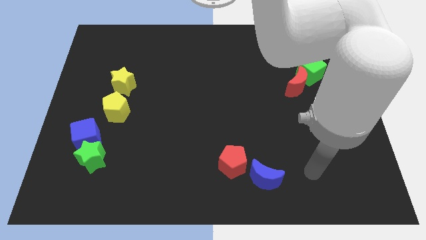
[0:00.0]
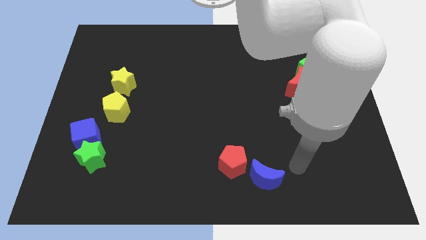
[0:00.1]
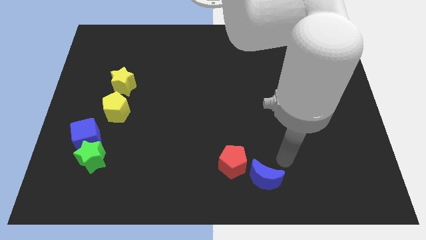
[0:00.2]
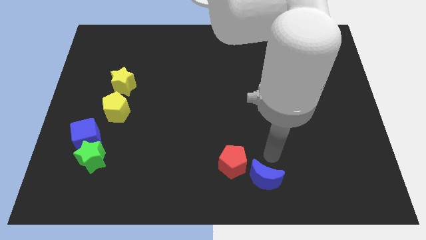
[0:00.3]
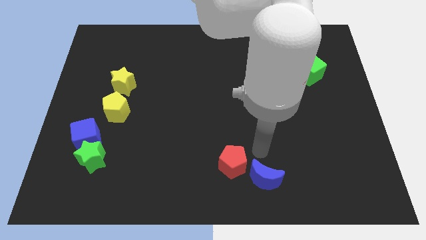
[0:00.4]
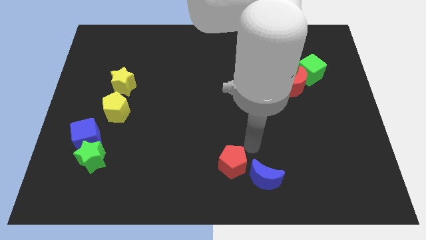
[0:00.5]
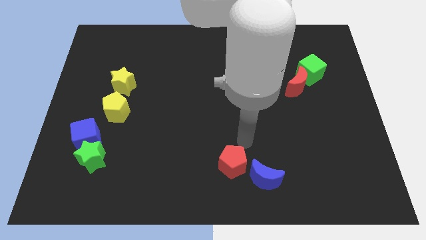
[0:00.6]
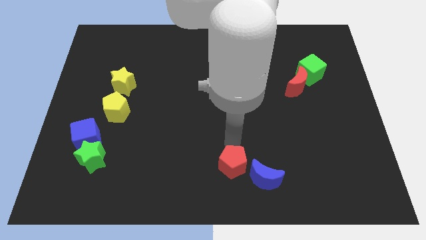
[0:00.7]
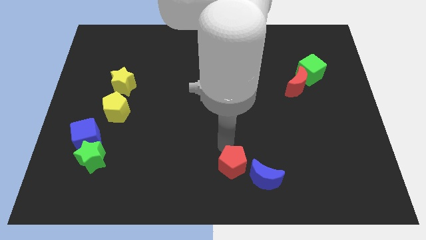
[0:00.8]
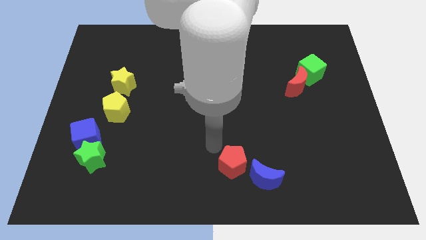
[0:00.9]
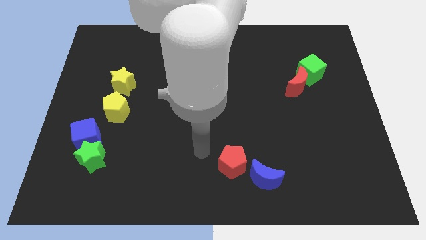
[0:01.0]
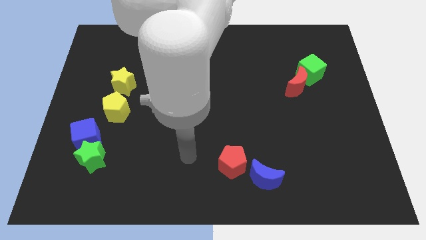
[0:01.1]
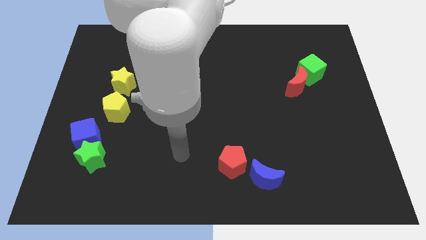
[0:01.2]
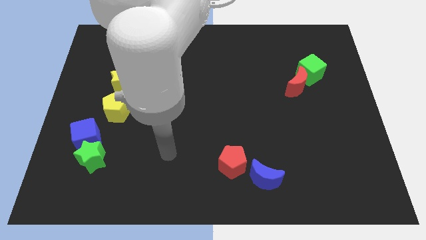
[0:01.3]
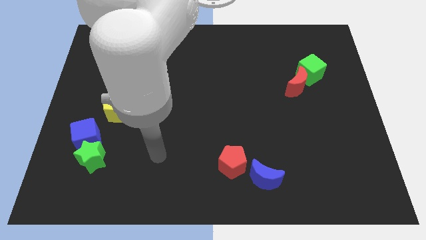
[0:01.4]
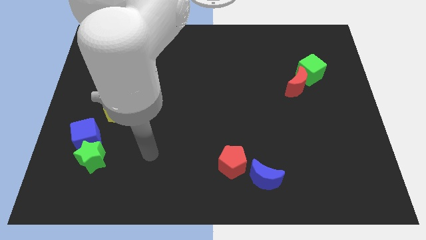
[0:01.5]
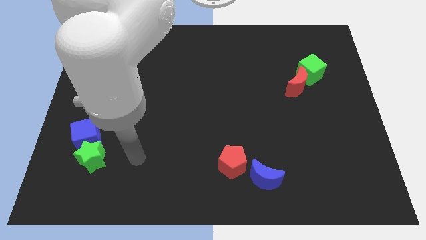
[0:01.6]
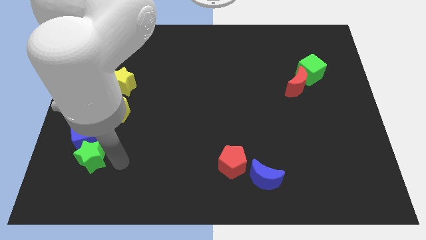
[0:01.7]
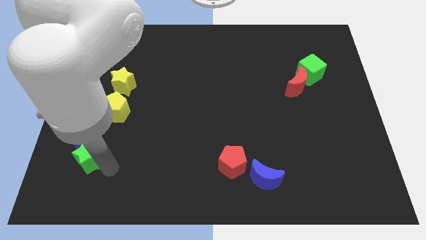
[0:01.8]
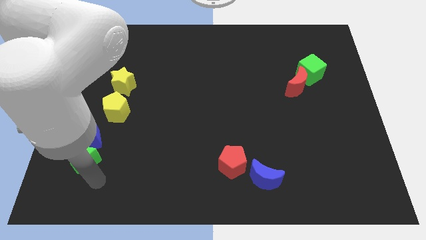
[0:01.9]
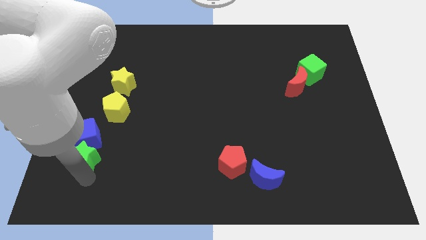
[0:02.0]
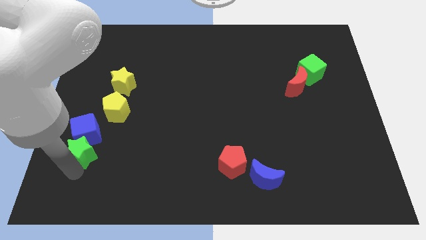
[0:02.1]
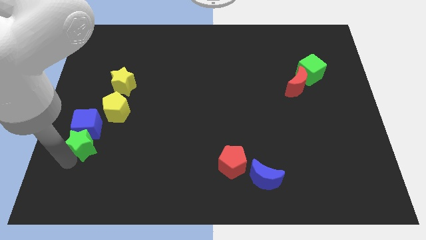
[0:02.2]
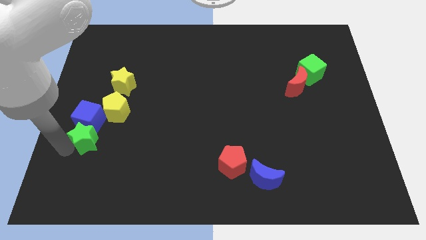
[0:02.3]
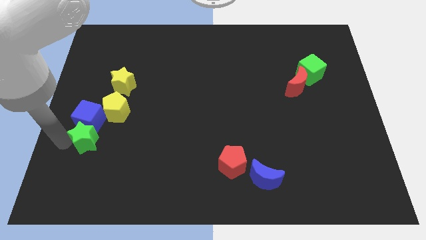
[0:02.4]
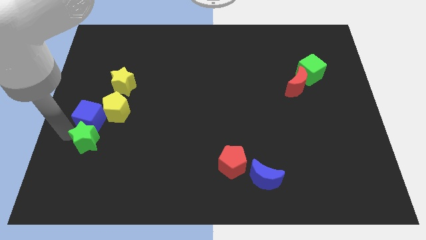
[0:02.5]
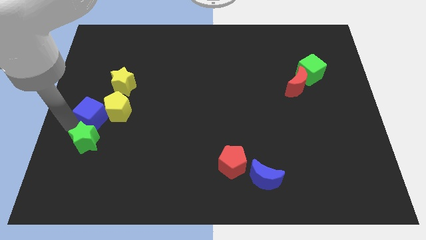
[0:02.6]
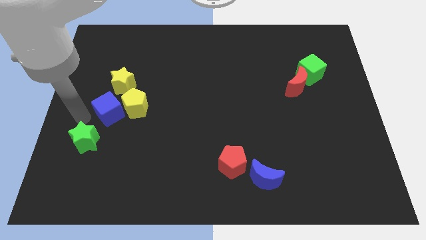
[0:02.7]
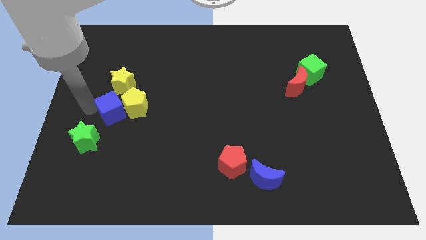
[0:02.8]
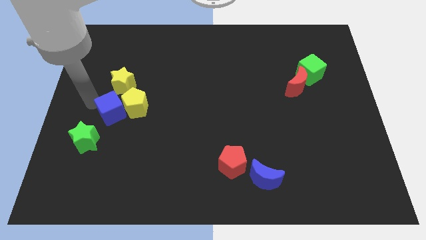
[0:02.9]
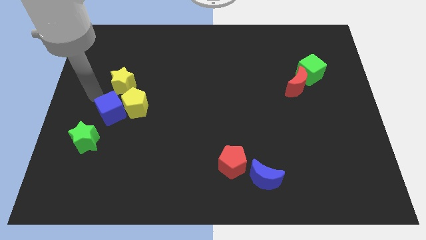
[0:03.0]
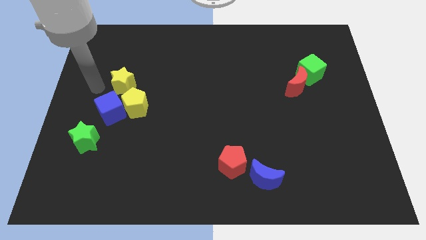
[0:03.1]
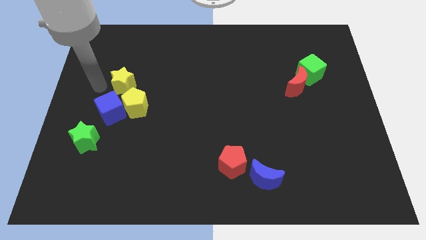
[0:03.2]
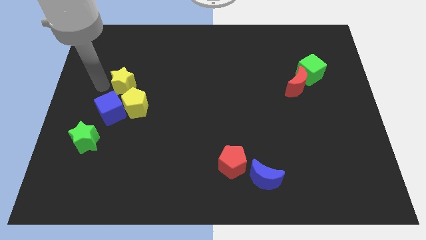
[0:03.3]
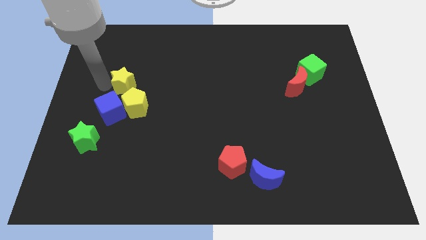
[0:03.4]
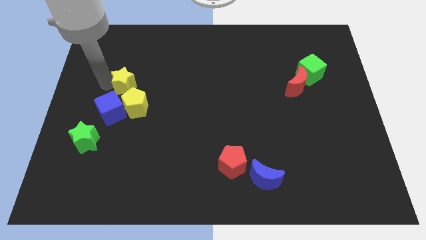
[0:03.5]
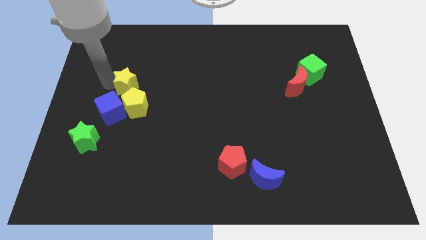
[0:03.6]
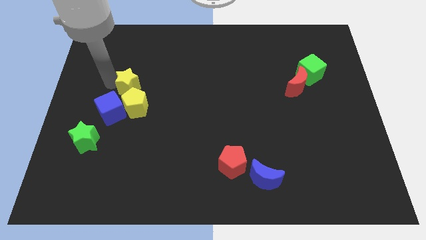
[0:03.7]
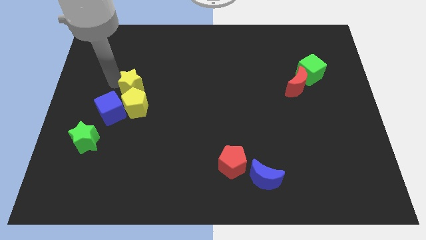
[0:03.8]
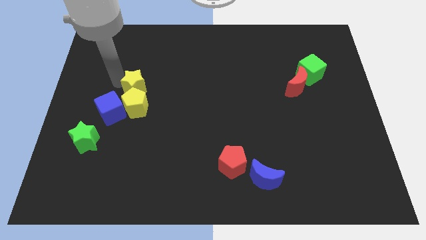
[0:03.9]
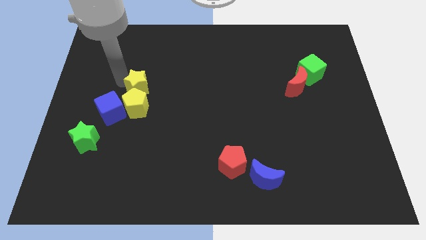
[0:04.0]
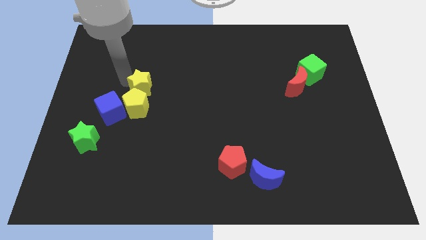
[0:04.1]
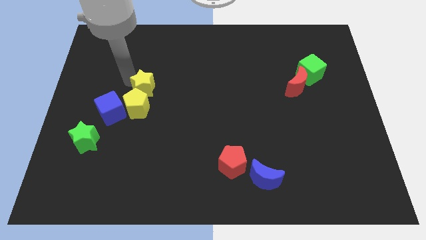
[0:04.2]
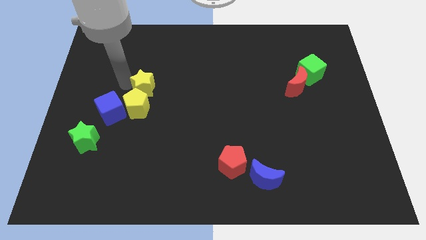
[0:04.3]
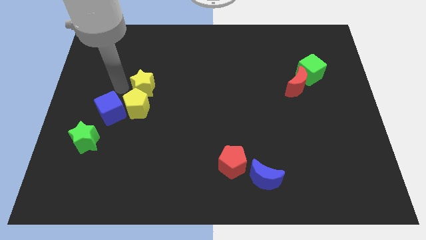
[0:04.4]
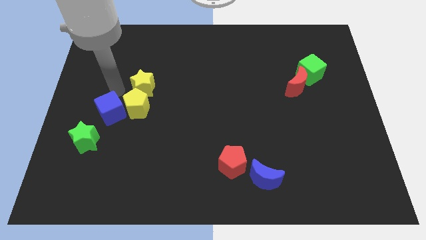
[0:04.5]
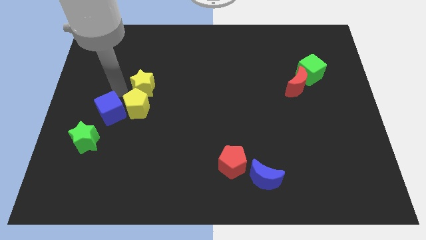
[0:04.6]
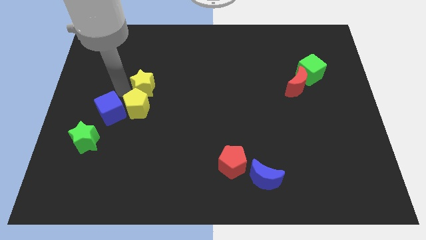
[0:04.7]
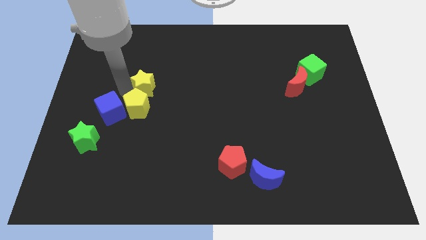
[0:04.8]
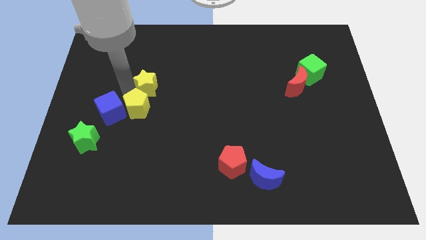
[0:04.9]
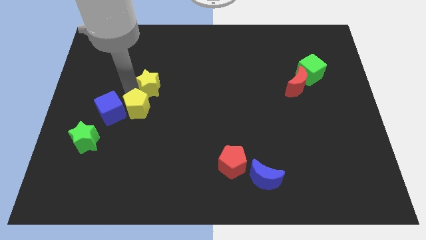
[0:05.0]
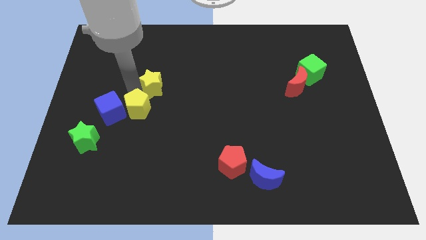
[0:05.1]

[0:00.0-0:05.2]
slide the yellow star right slightly

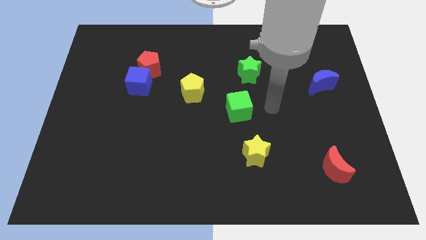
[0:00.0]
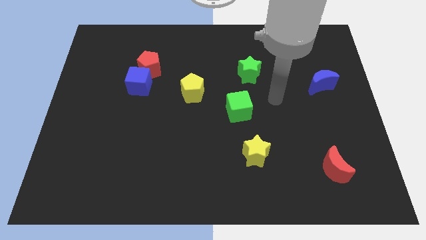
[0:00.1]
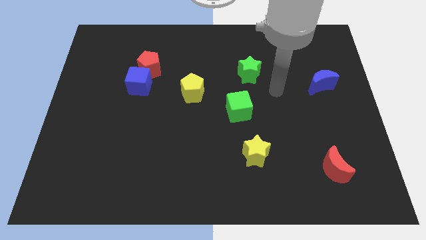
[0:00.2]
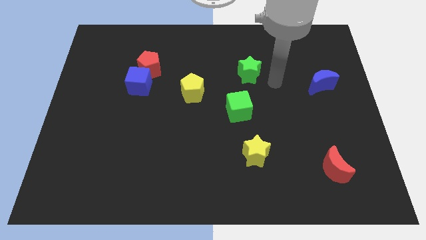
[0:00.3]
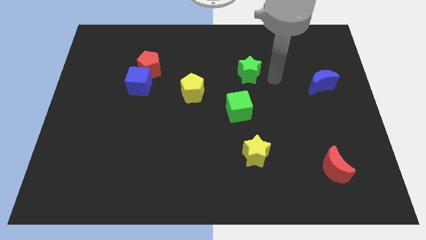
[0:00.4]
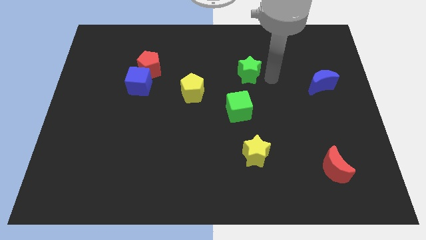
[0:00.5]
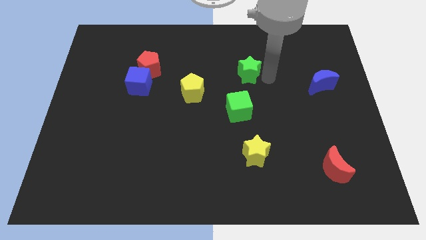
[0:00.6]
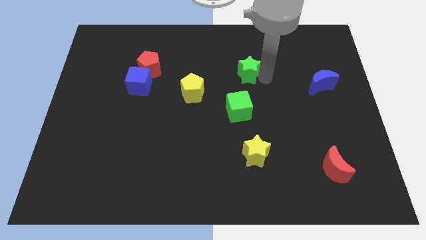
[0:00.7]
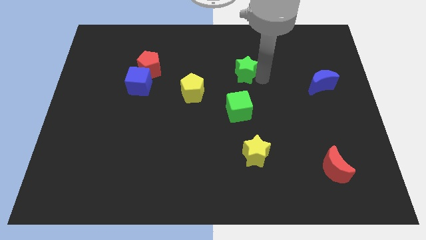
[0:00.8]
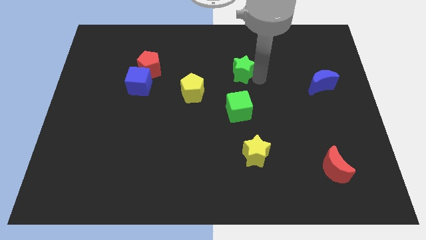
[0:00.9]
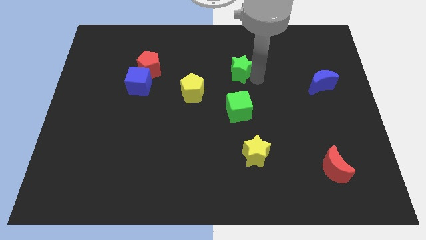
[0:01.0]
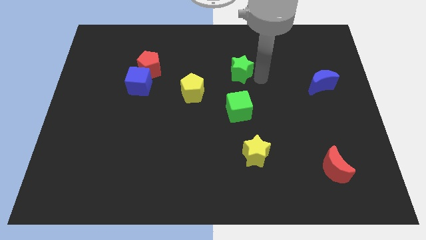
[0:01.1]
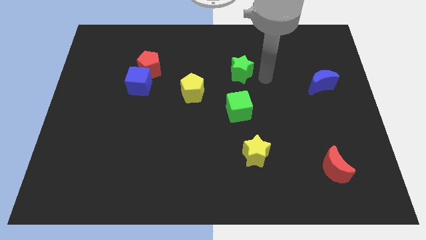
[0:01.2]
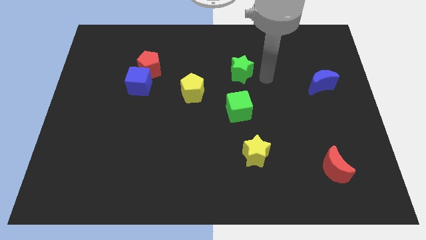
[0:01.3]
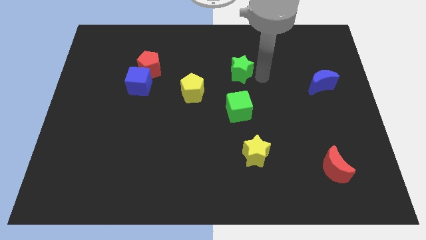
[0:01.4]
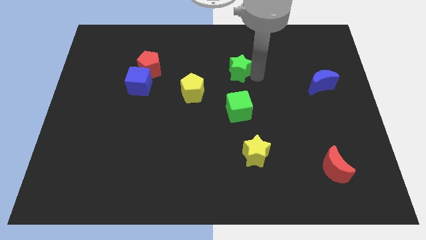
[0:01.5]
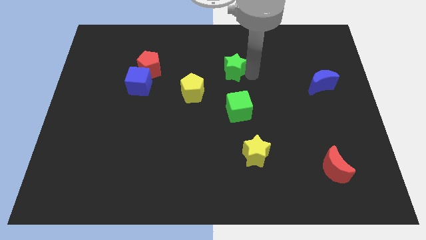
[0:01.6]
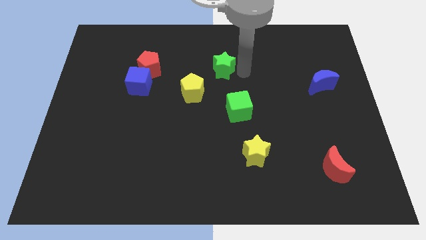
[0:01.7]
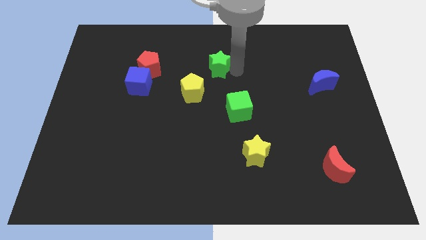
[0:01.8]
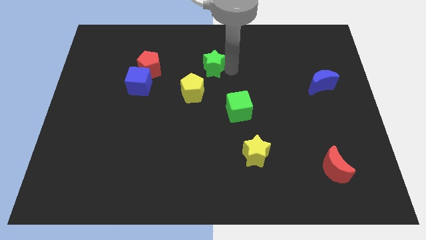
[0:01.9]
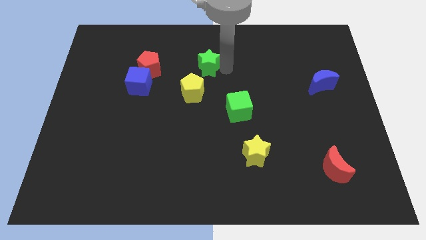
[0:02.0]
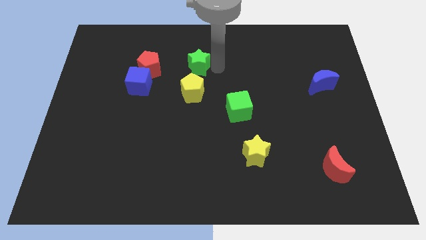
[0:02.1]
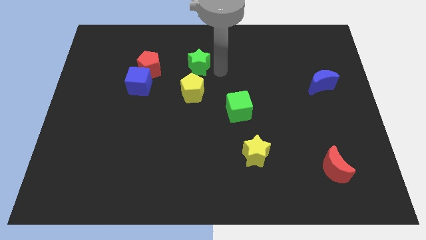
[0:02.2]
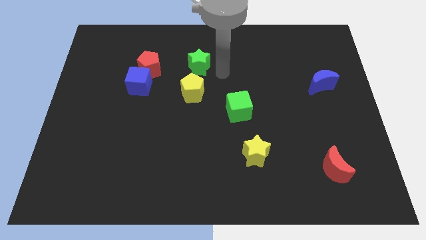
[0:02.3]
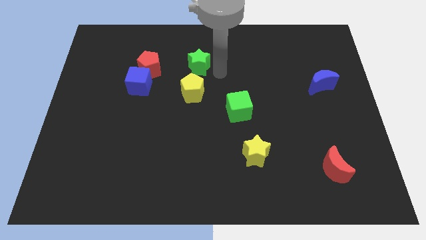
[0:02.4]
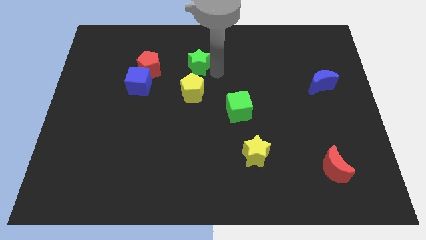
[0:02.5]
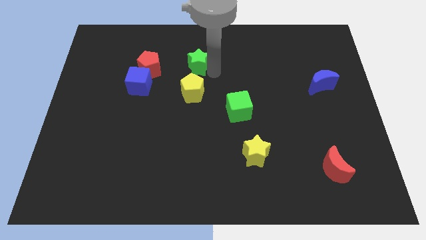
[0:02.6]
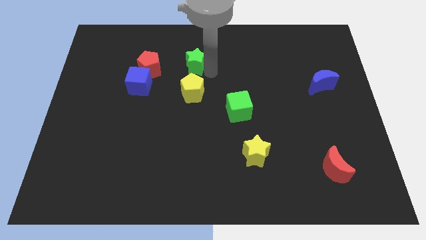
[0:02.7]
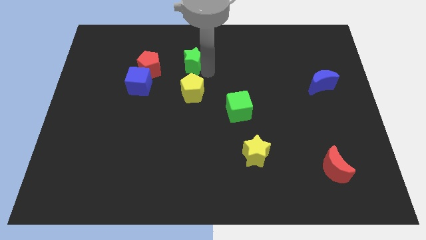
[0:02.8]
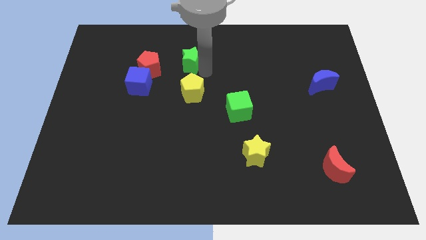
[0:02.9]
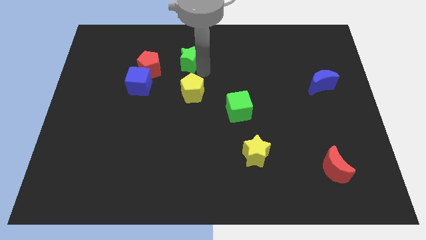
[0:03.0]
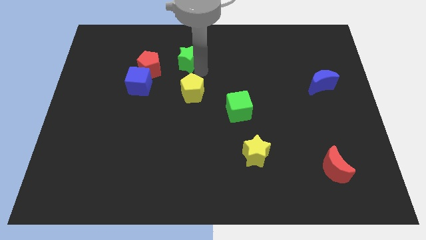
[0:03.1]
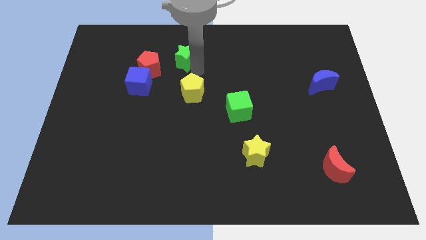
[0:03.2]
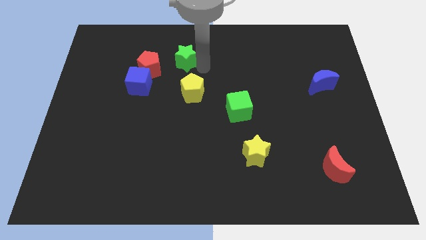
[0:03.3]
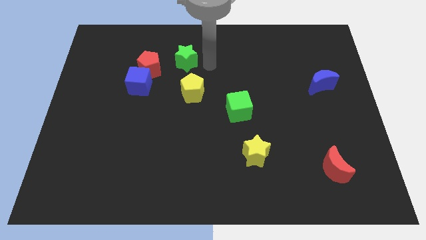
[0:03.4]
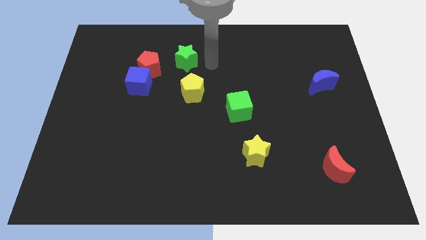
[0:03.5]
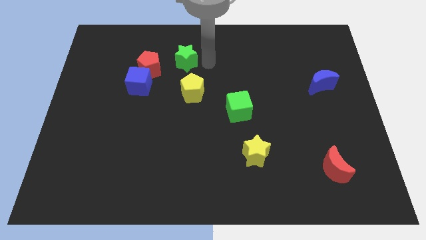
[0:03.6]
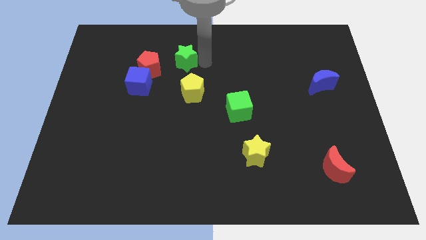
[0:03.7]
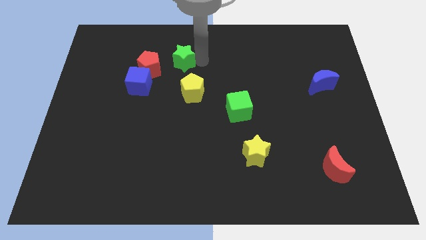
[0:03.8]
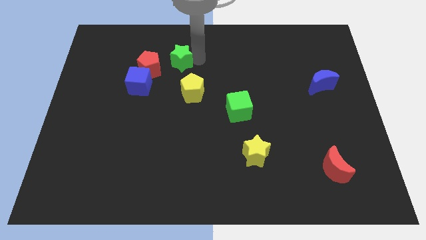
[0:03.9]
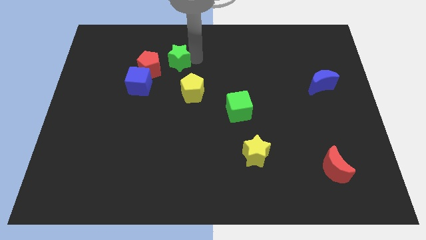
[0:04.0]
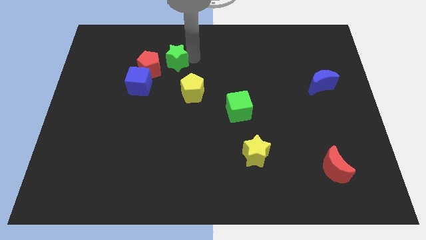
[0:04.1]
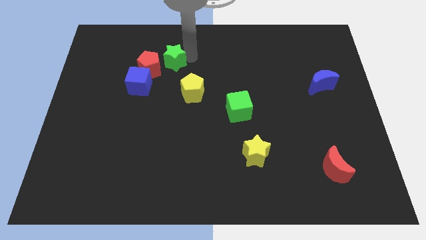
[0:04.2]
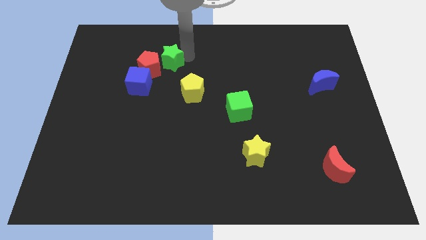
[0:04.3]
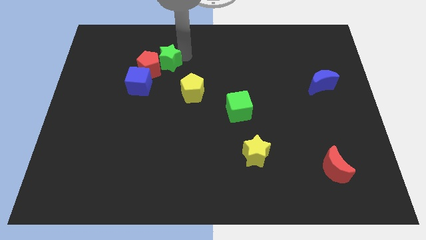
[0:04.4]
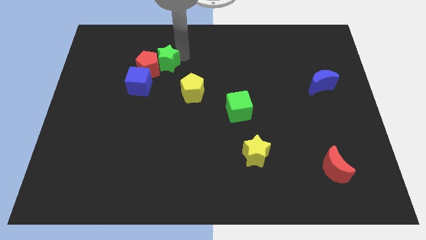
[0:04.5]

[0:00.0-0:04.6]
move the green star left
